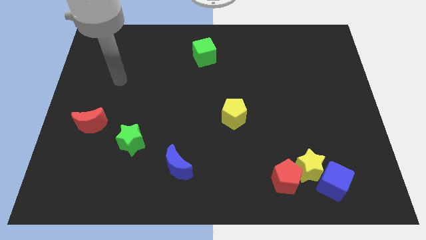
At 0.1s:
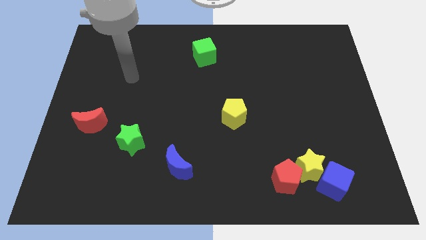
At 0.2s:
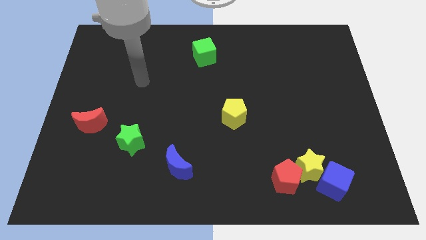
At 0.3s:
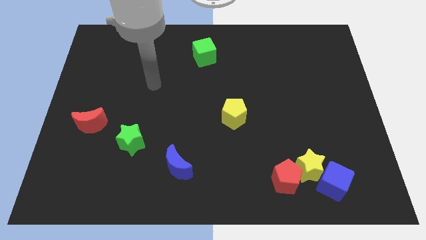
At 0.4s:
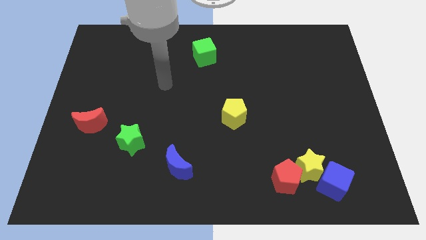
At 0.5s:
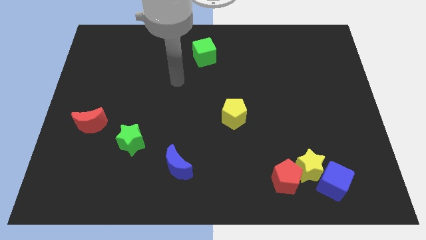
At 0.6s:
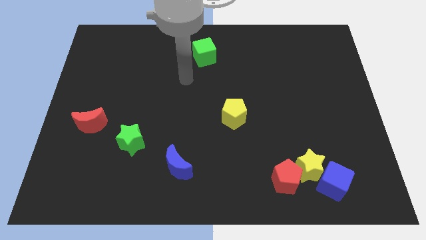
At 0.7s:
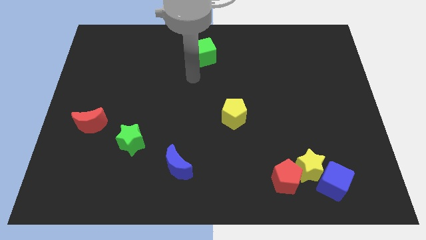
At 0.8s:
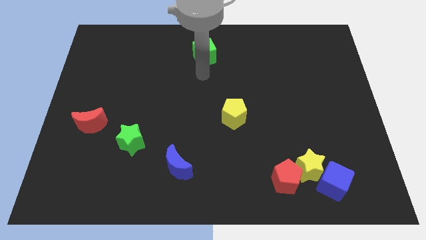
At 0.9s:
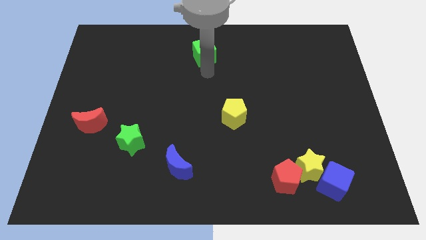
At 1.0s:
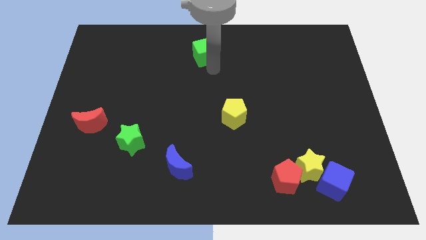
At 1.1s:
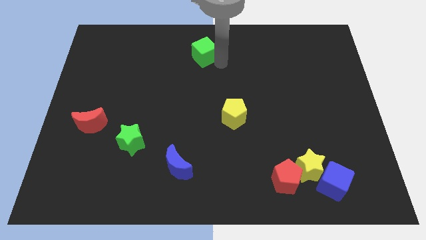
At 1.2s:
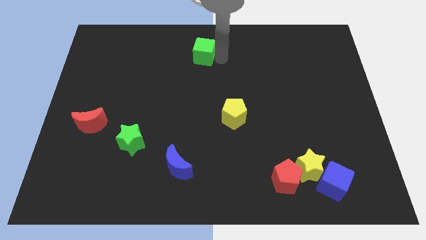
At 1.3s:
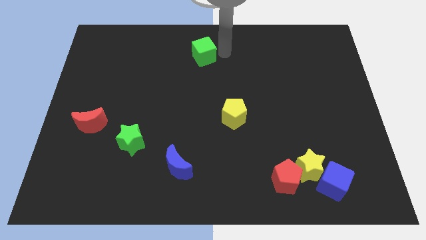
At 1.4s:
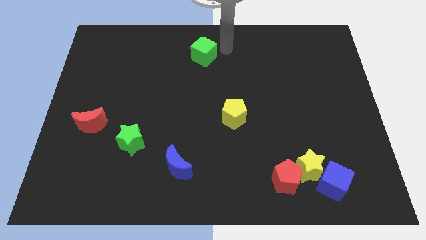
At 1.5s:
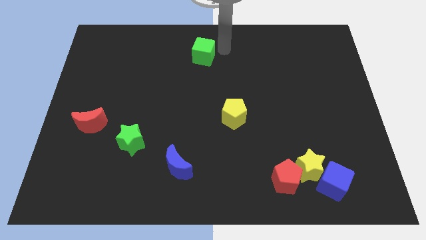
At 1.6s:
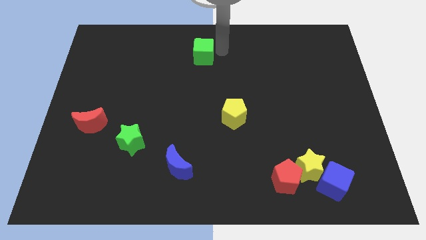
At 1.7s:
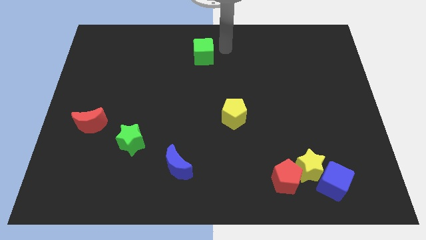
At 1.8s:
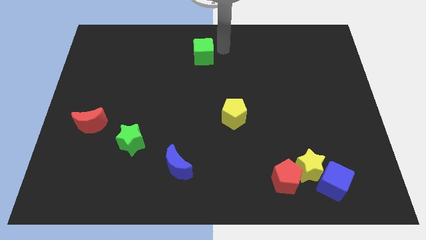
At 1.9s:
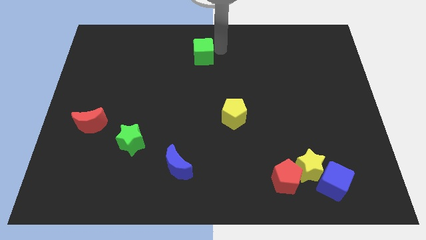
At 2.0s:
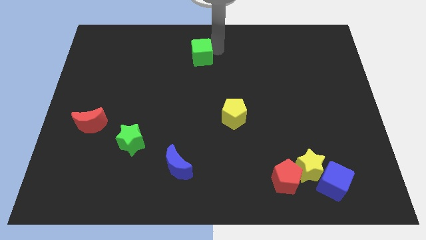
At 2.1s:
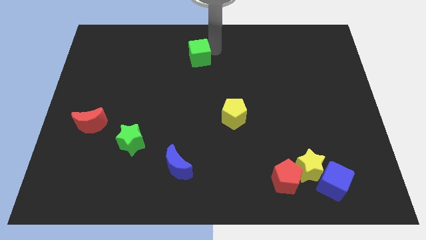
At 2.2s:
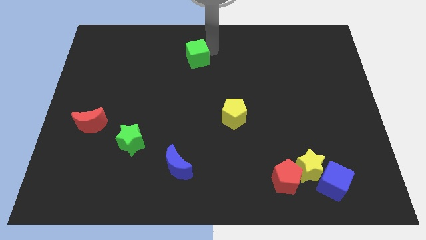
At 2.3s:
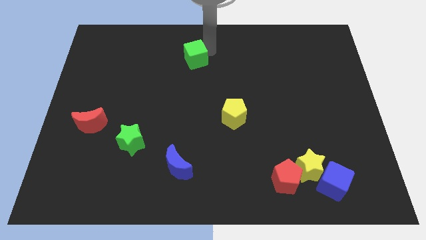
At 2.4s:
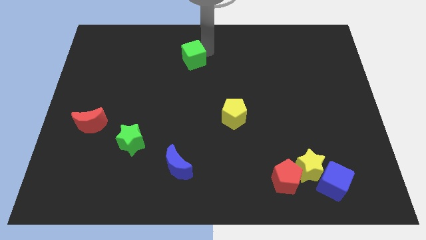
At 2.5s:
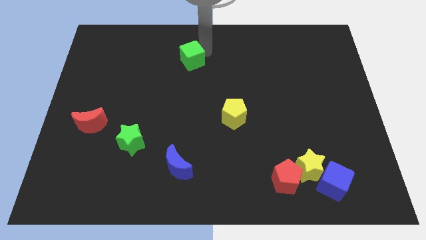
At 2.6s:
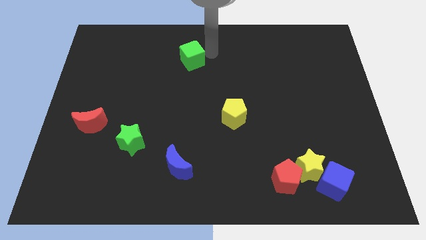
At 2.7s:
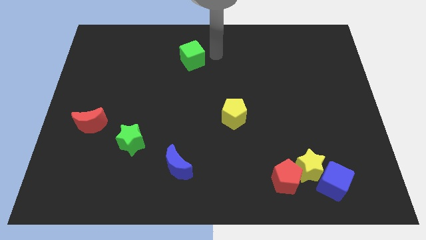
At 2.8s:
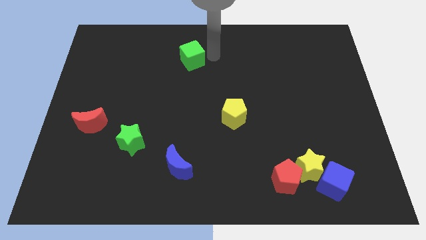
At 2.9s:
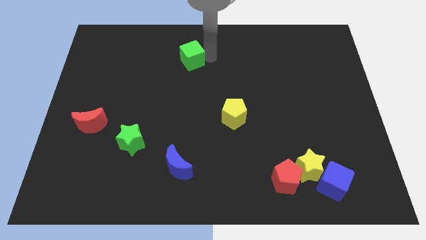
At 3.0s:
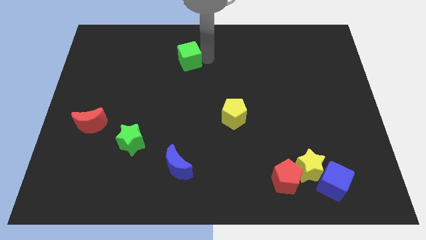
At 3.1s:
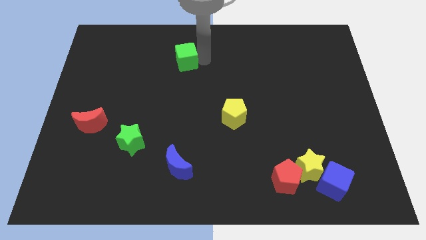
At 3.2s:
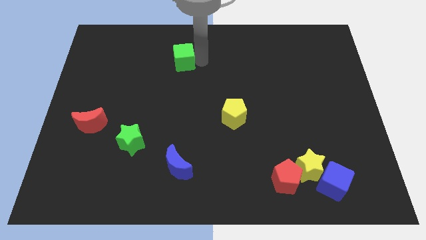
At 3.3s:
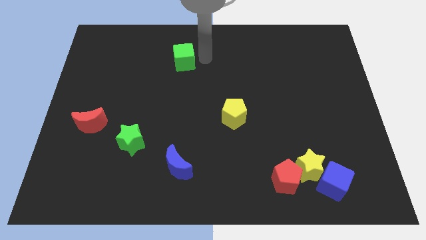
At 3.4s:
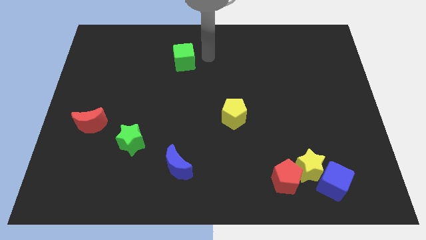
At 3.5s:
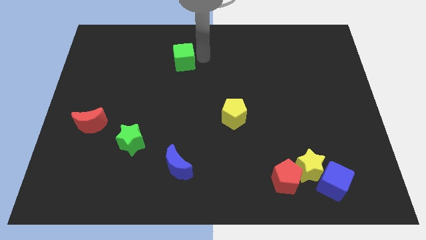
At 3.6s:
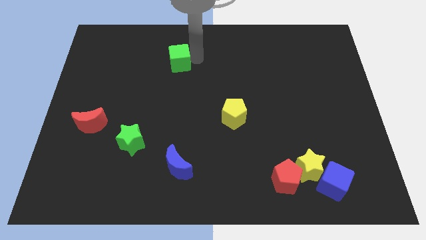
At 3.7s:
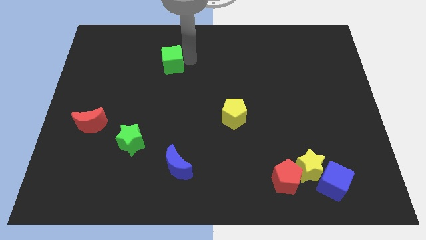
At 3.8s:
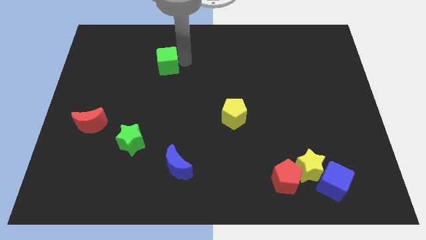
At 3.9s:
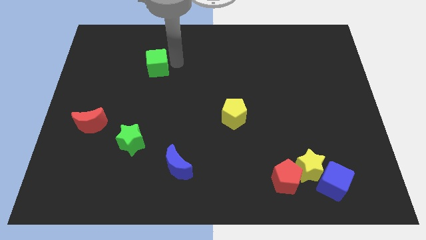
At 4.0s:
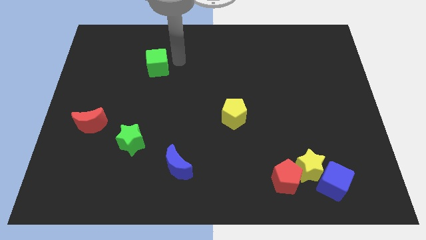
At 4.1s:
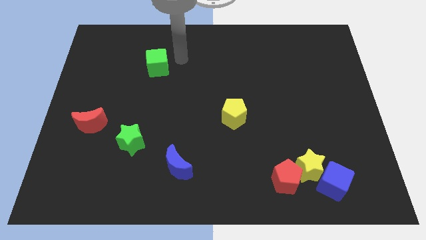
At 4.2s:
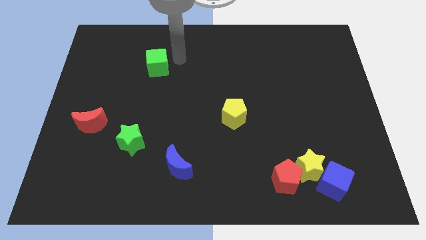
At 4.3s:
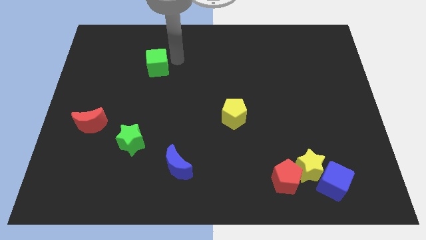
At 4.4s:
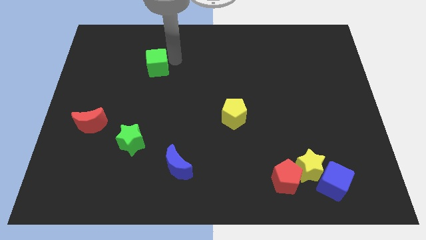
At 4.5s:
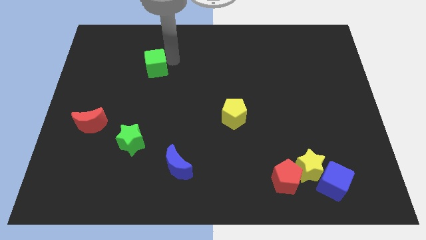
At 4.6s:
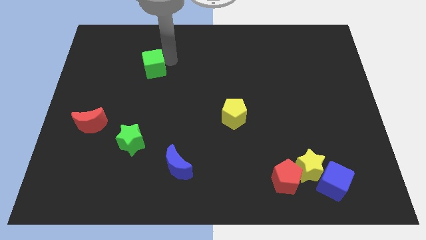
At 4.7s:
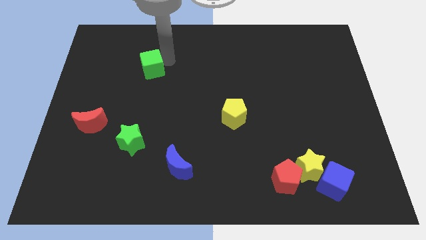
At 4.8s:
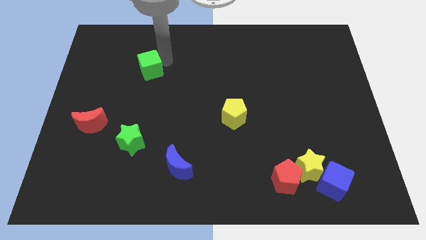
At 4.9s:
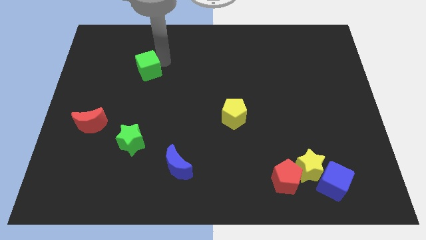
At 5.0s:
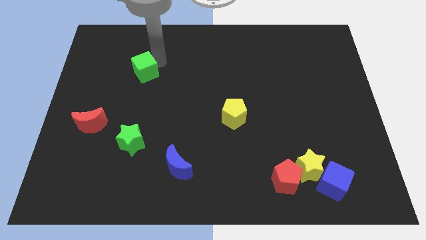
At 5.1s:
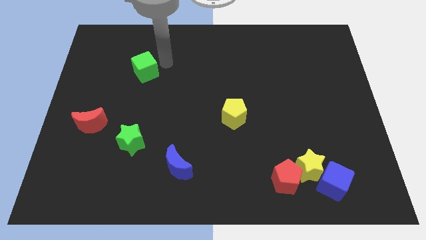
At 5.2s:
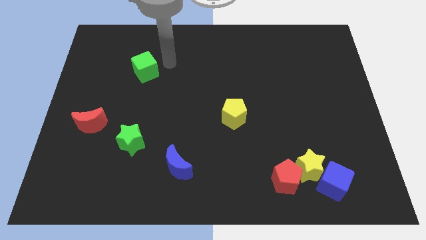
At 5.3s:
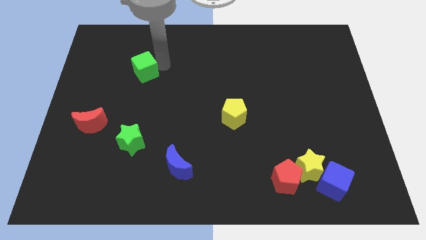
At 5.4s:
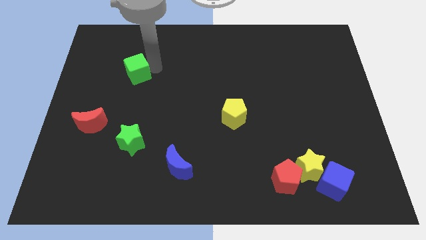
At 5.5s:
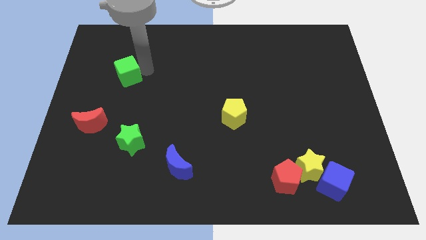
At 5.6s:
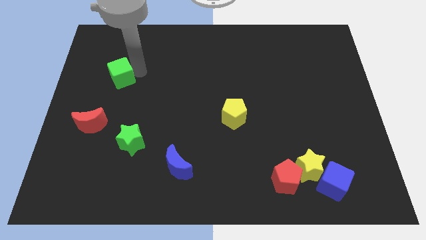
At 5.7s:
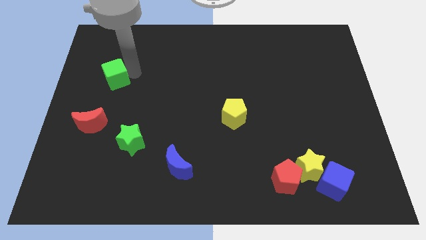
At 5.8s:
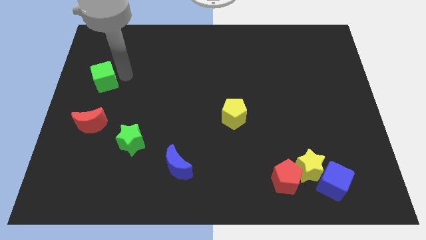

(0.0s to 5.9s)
slide the green cube to the left side
